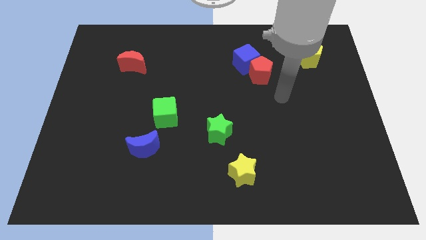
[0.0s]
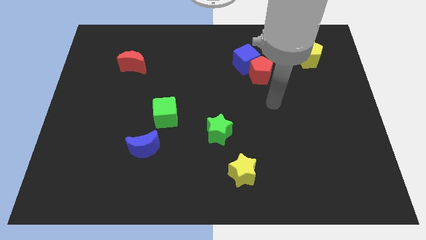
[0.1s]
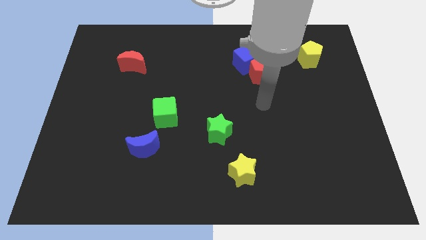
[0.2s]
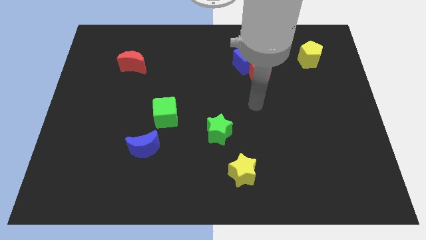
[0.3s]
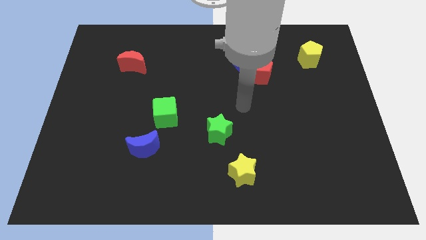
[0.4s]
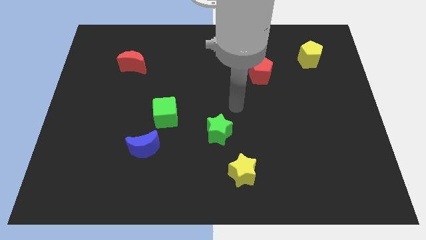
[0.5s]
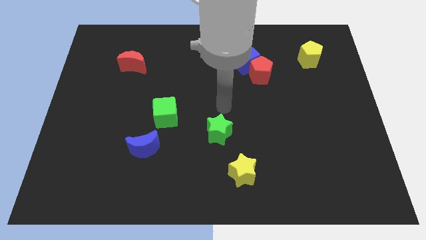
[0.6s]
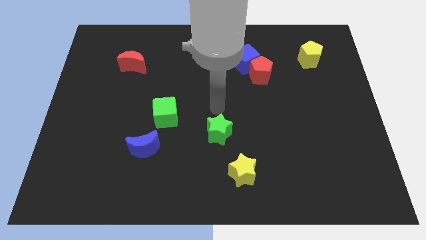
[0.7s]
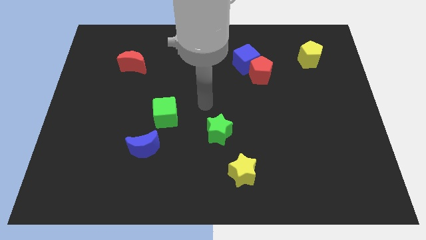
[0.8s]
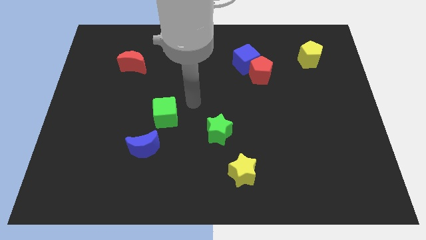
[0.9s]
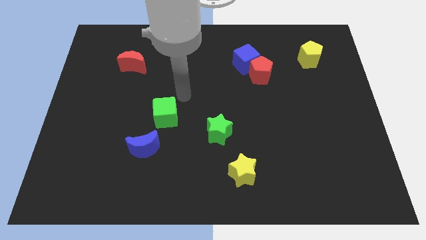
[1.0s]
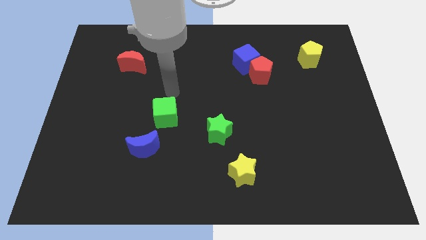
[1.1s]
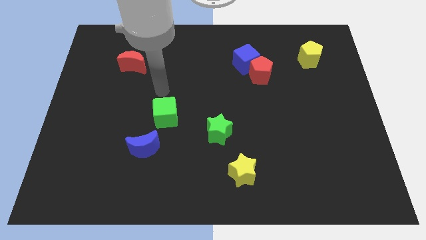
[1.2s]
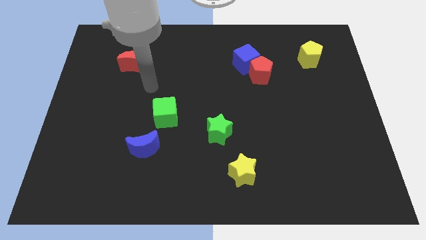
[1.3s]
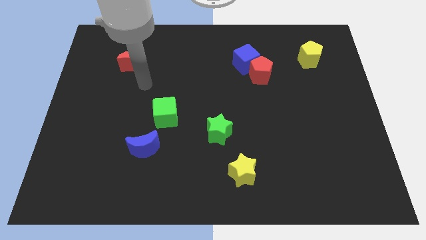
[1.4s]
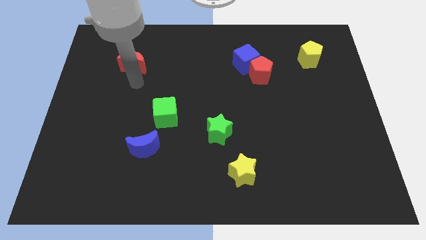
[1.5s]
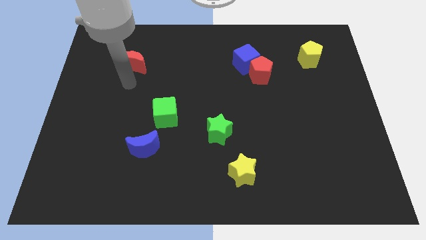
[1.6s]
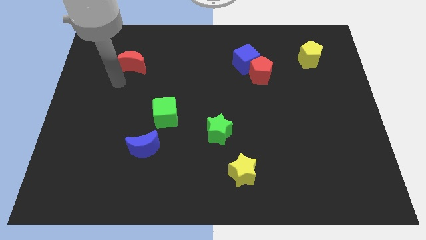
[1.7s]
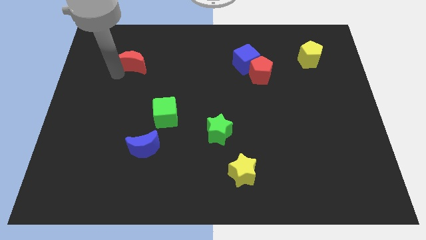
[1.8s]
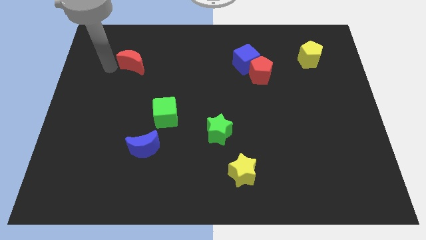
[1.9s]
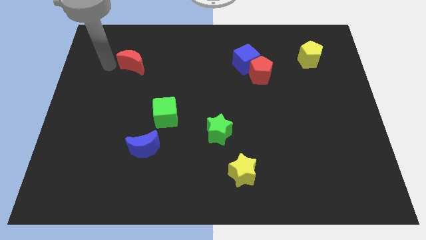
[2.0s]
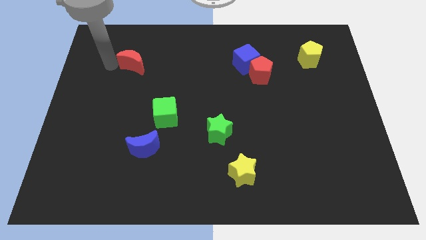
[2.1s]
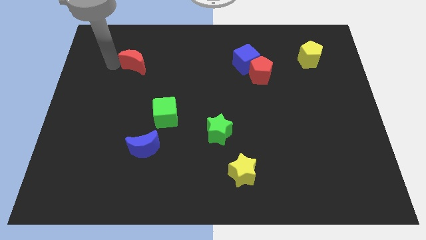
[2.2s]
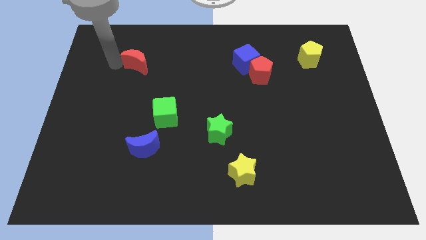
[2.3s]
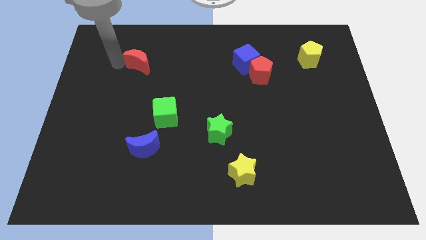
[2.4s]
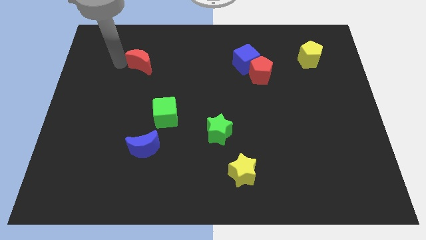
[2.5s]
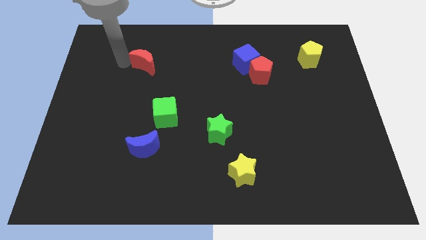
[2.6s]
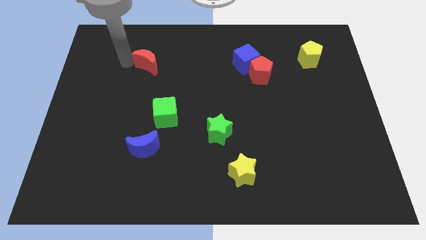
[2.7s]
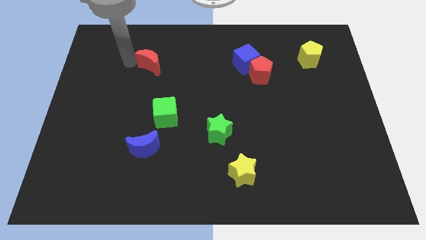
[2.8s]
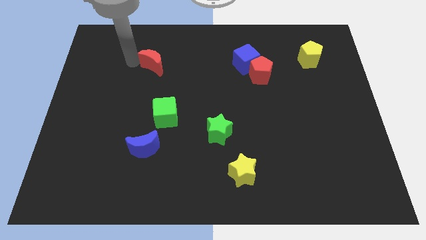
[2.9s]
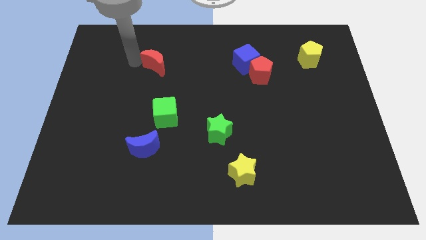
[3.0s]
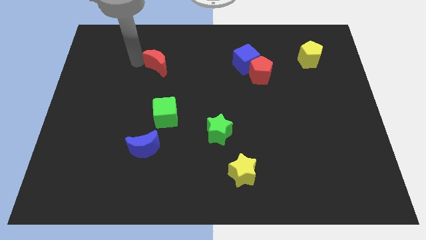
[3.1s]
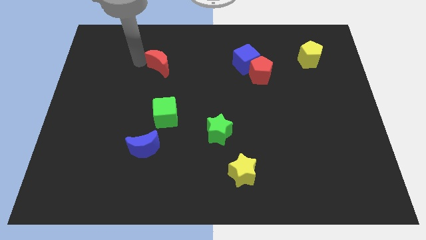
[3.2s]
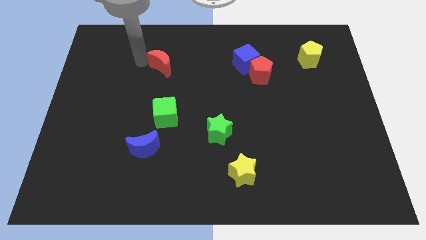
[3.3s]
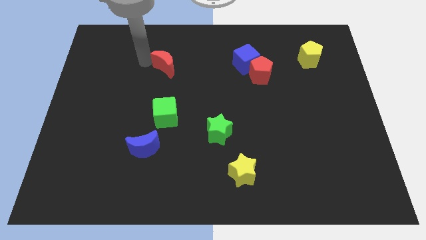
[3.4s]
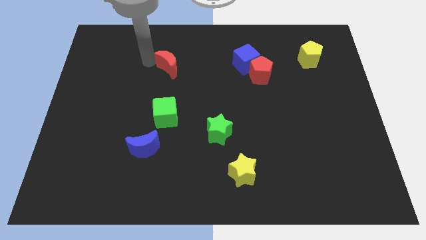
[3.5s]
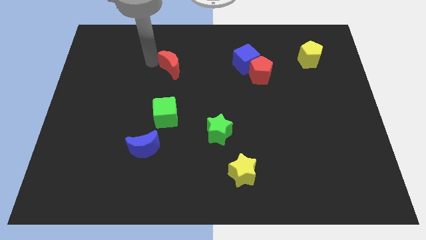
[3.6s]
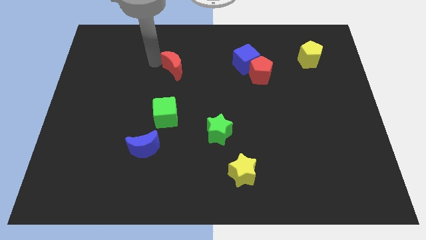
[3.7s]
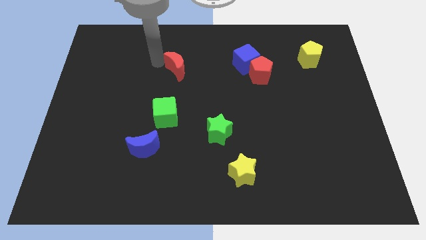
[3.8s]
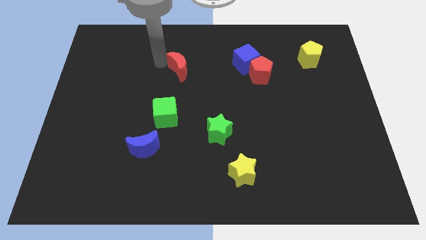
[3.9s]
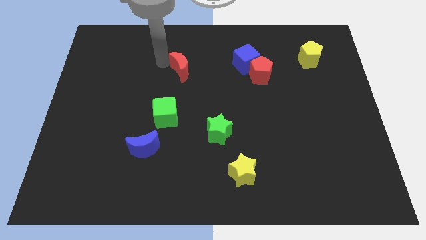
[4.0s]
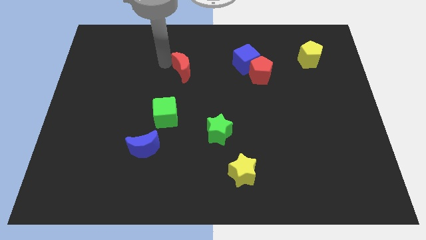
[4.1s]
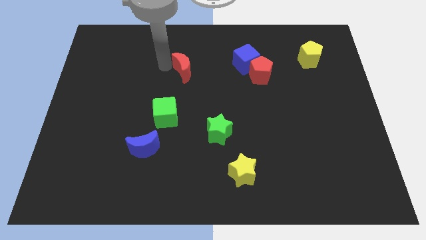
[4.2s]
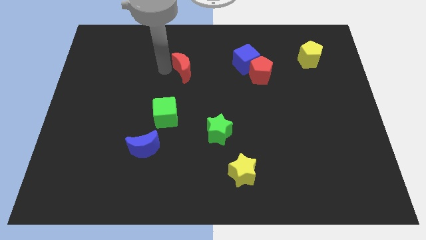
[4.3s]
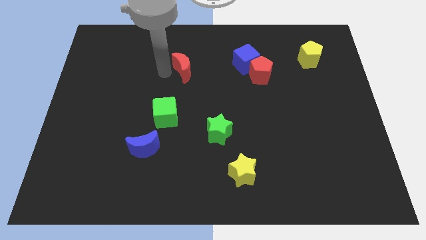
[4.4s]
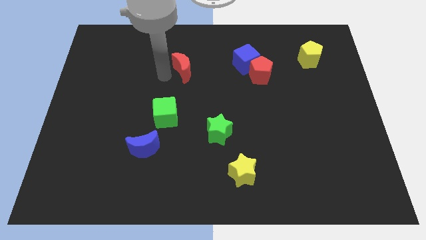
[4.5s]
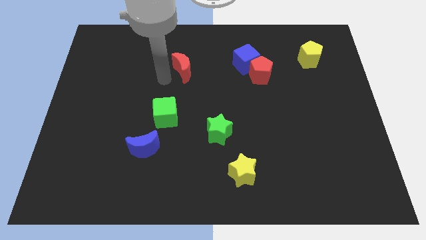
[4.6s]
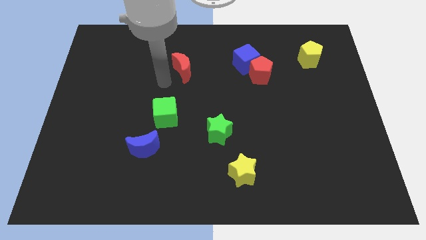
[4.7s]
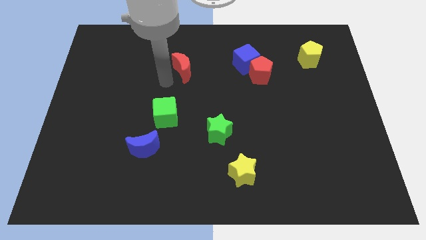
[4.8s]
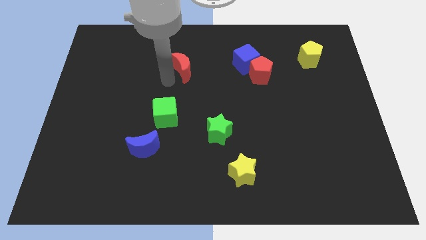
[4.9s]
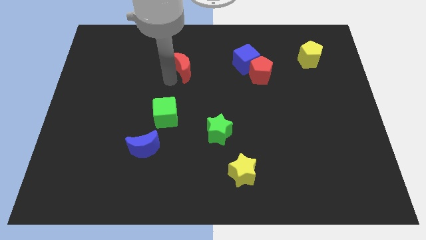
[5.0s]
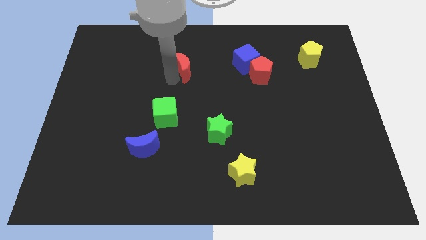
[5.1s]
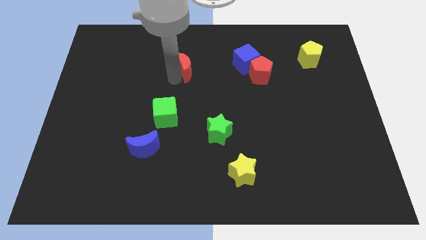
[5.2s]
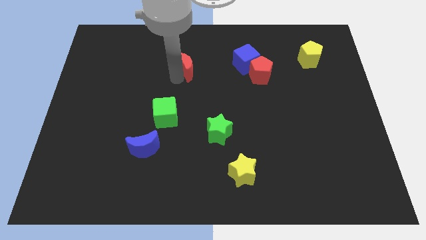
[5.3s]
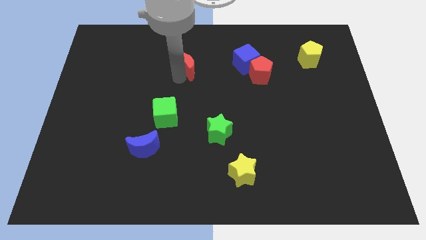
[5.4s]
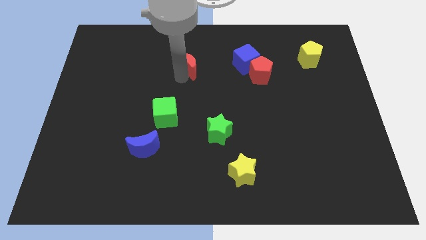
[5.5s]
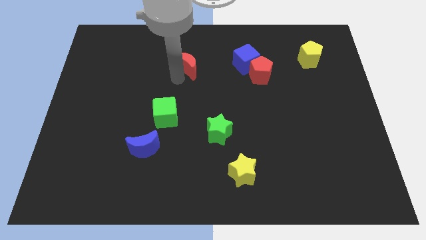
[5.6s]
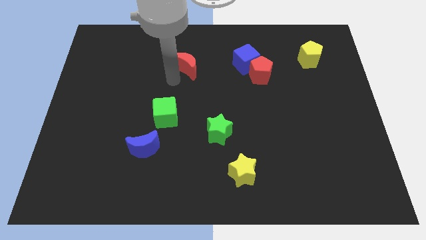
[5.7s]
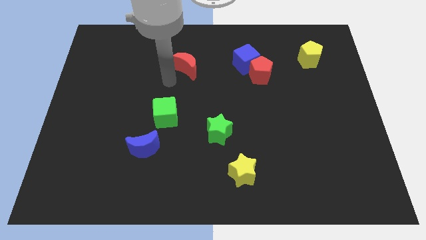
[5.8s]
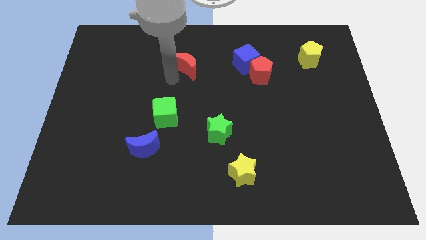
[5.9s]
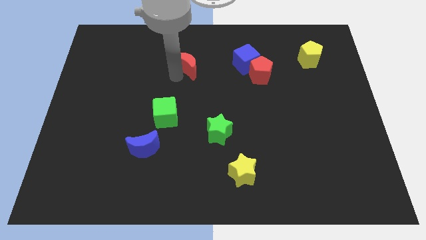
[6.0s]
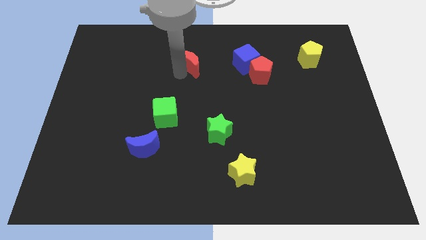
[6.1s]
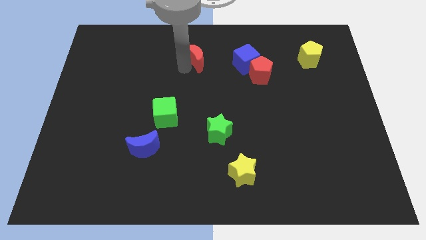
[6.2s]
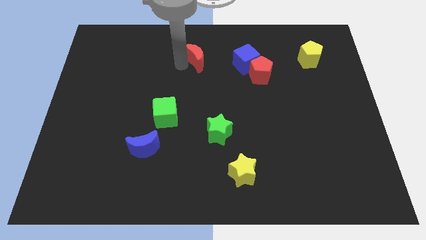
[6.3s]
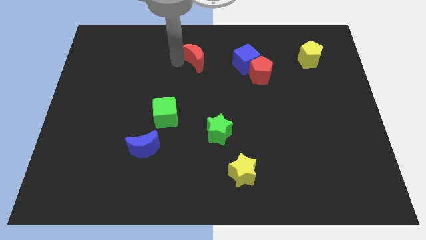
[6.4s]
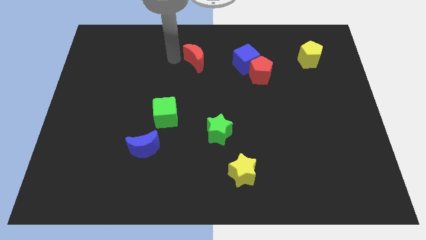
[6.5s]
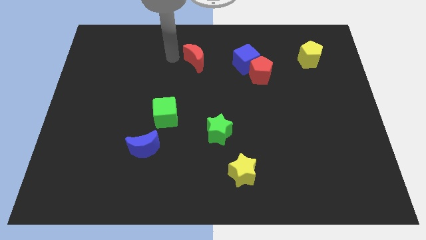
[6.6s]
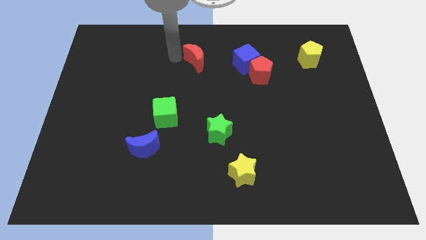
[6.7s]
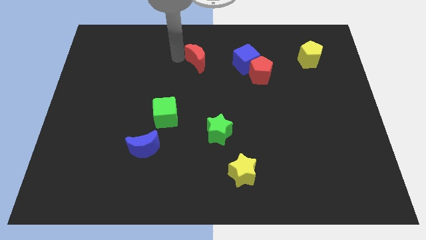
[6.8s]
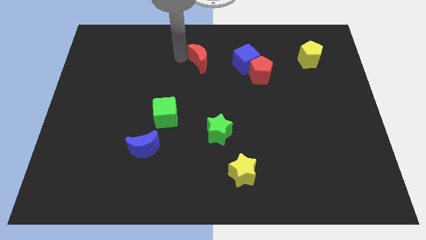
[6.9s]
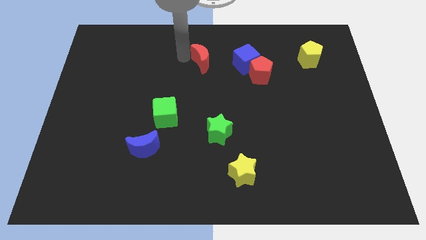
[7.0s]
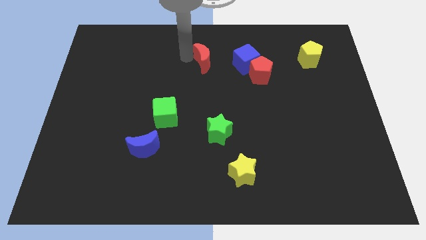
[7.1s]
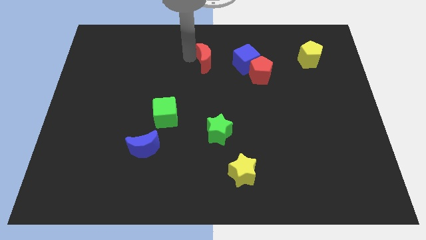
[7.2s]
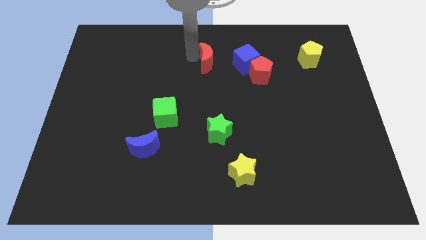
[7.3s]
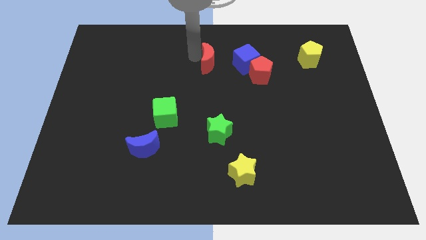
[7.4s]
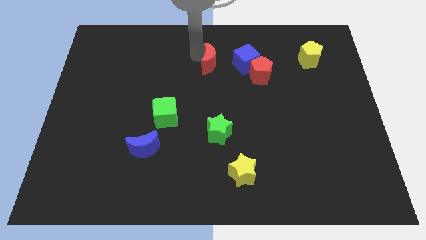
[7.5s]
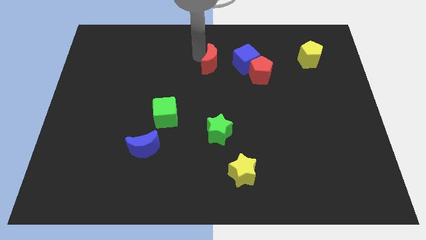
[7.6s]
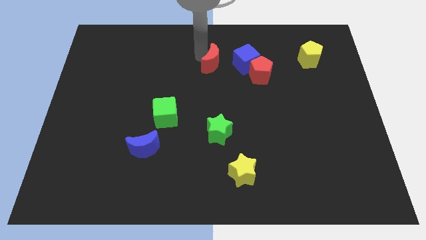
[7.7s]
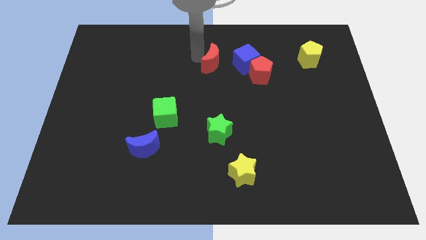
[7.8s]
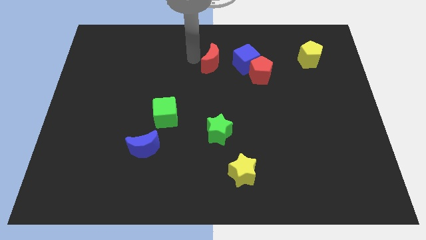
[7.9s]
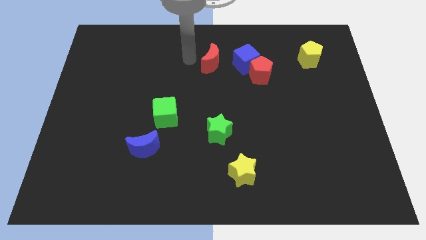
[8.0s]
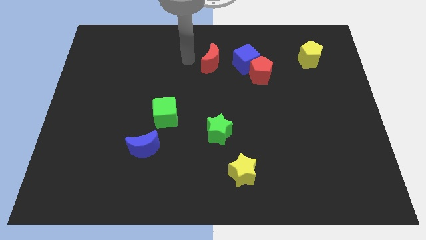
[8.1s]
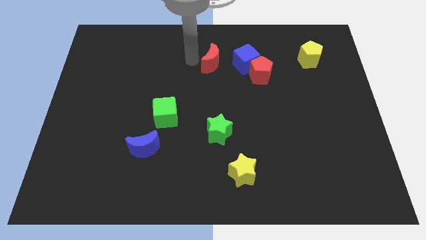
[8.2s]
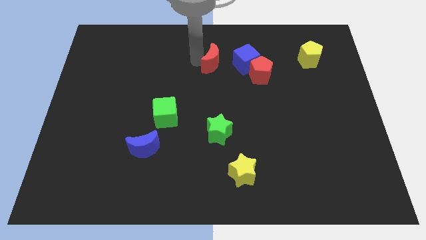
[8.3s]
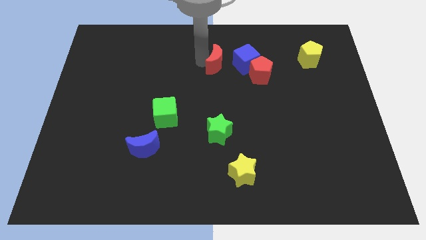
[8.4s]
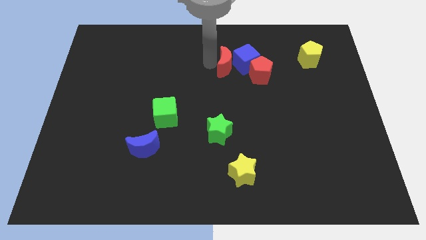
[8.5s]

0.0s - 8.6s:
slide the red moon towards the blue cube
